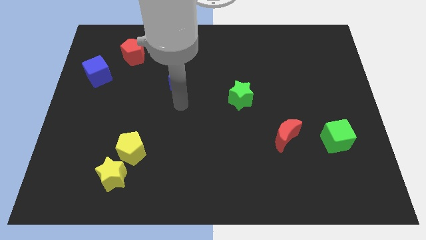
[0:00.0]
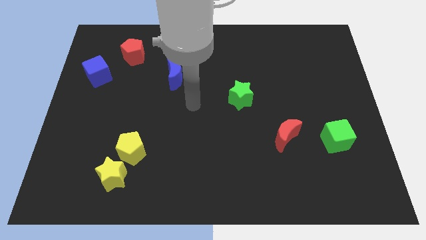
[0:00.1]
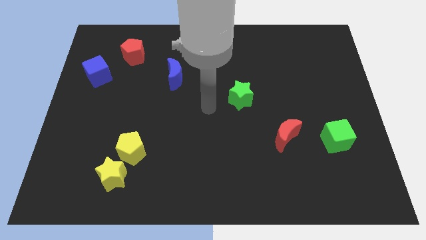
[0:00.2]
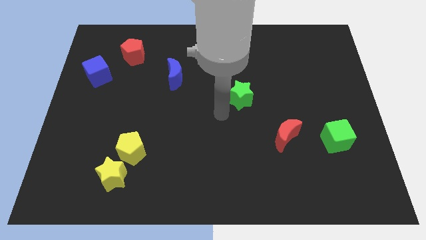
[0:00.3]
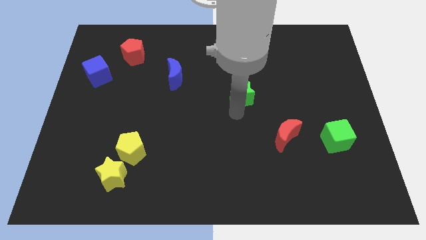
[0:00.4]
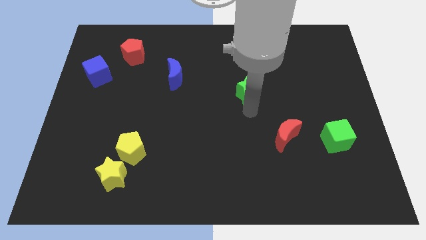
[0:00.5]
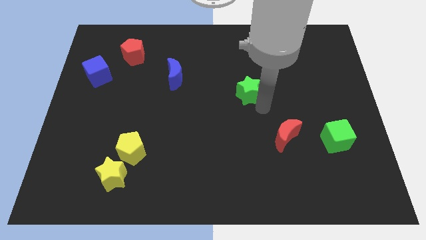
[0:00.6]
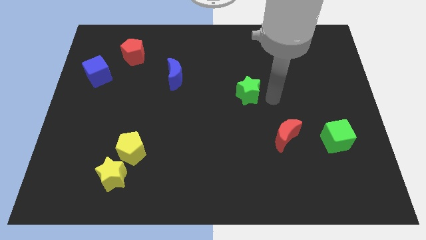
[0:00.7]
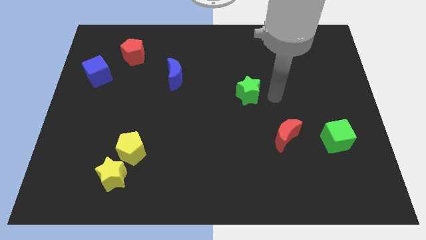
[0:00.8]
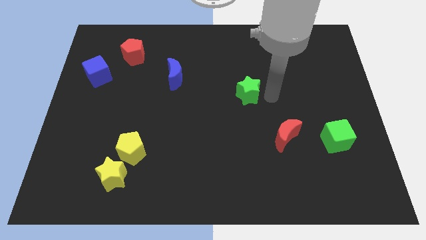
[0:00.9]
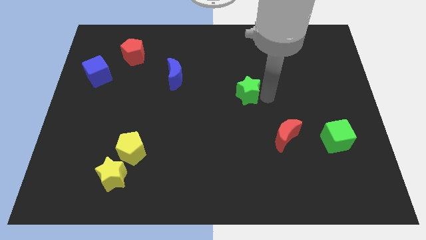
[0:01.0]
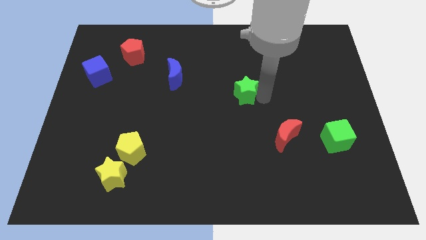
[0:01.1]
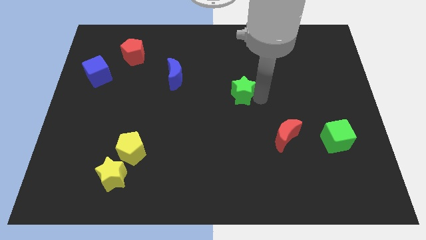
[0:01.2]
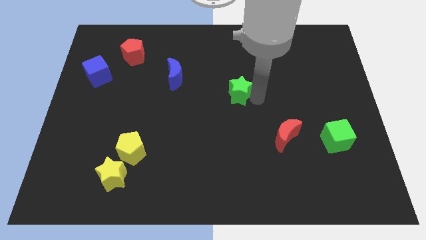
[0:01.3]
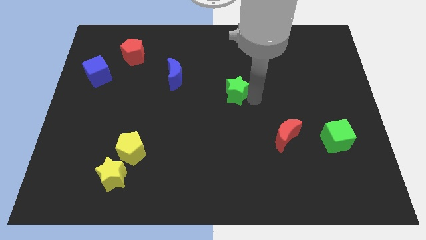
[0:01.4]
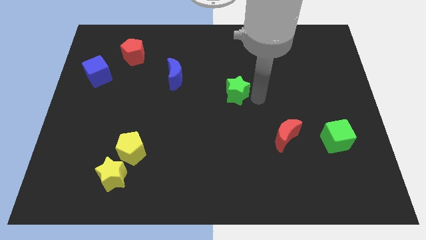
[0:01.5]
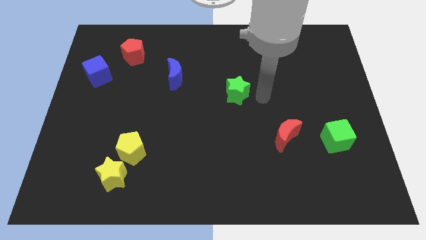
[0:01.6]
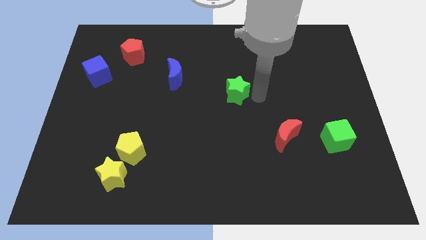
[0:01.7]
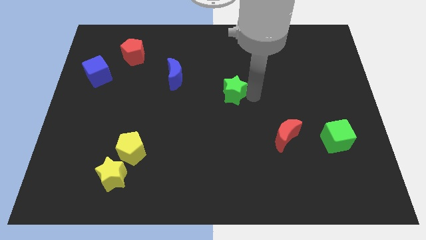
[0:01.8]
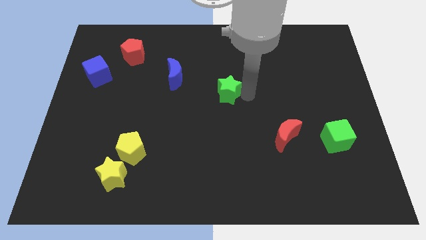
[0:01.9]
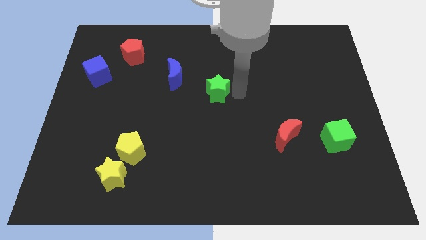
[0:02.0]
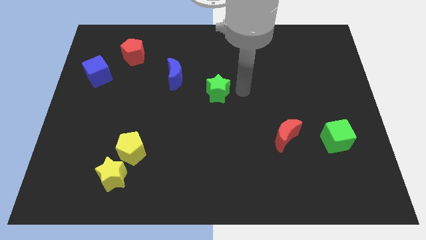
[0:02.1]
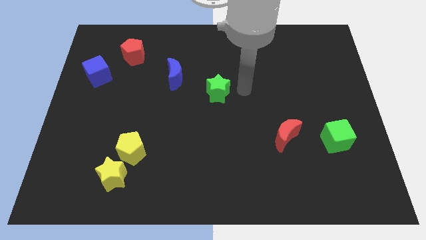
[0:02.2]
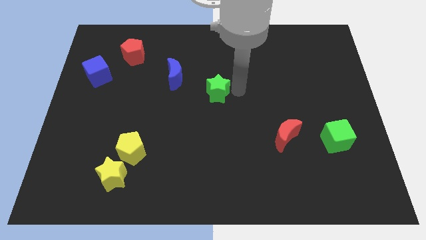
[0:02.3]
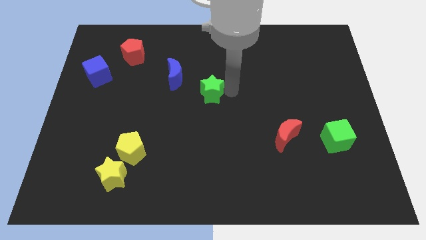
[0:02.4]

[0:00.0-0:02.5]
move the green star to the left slightly

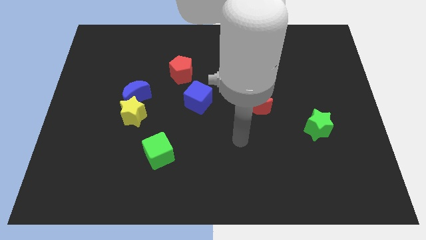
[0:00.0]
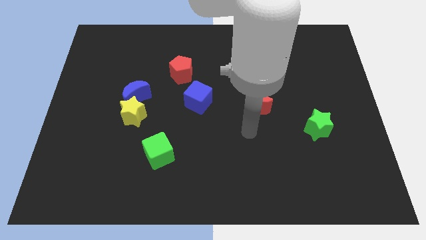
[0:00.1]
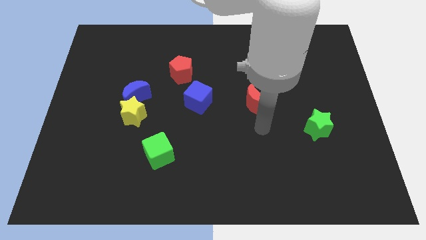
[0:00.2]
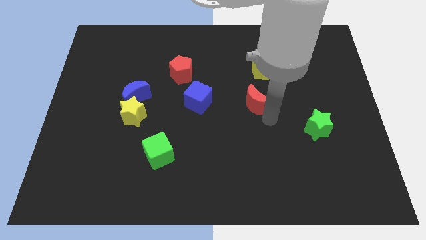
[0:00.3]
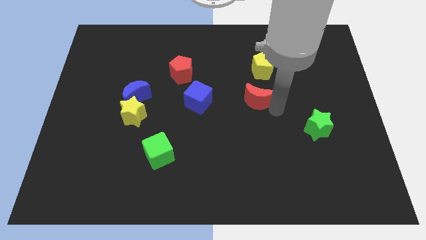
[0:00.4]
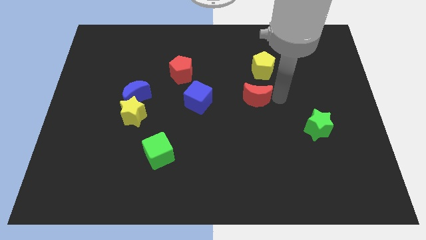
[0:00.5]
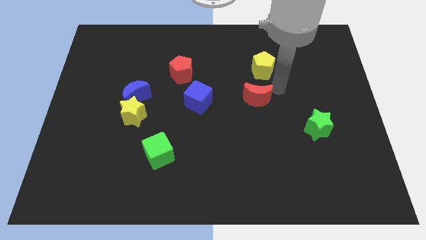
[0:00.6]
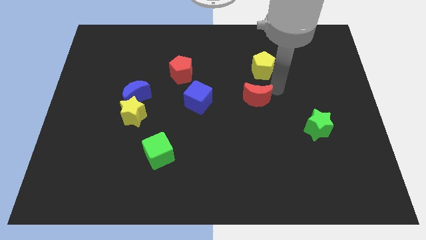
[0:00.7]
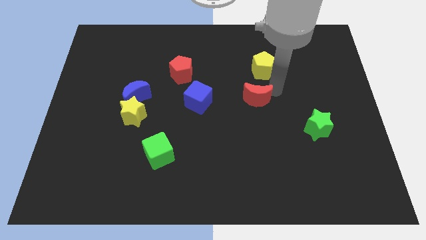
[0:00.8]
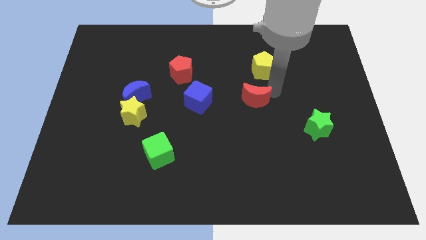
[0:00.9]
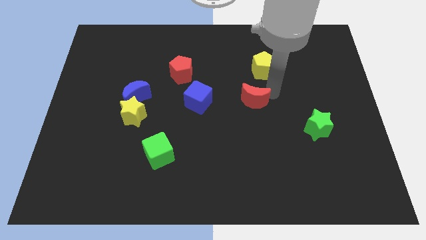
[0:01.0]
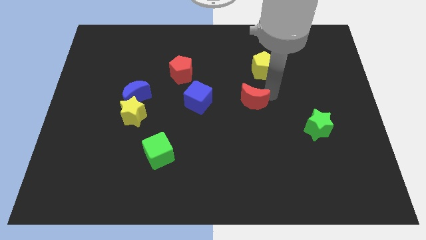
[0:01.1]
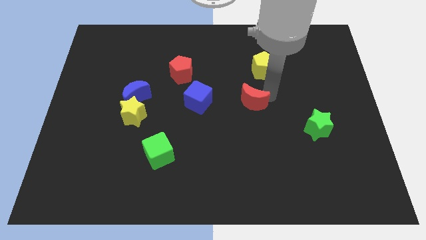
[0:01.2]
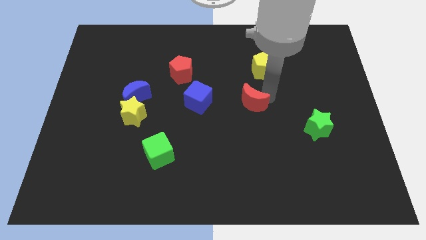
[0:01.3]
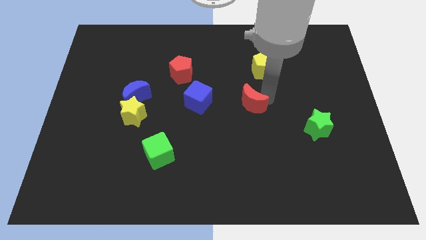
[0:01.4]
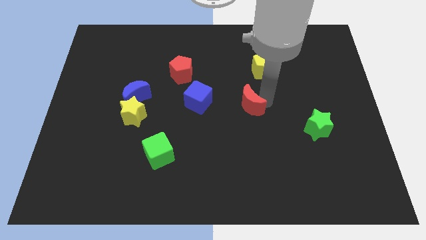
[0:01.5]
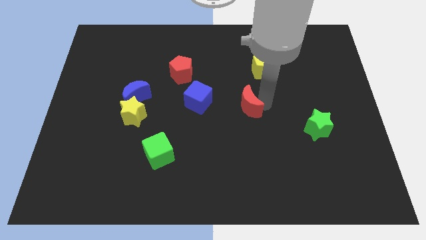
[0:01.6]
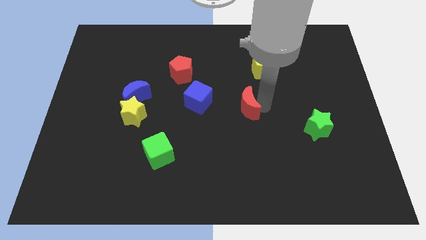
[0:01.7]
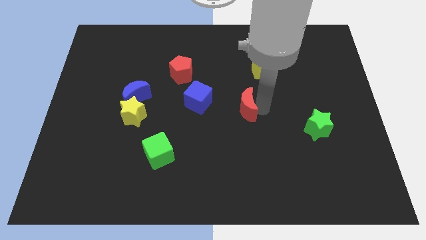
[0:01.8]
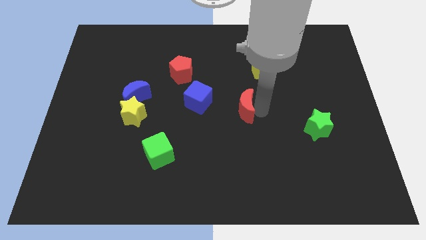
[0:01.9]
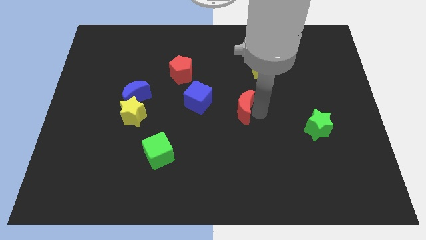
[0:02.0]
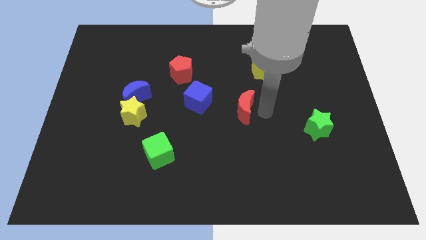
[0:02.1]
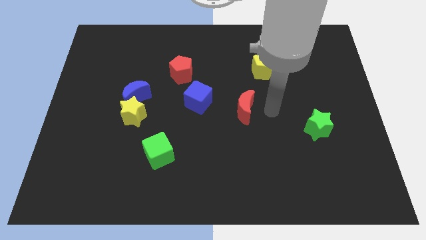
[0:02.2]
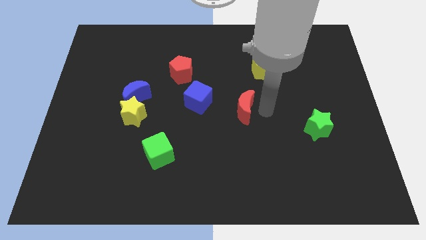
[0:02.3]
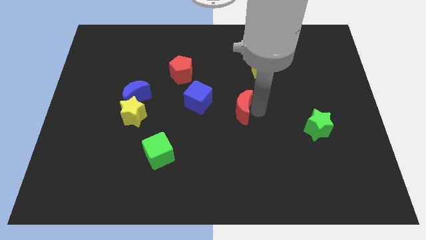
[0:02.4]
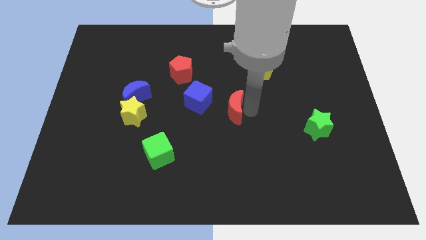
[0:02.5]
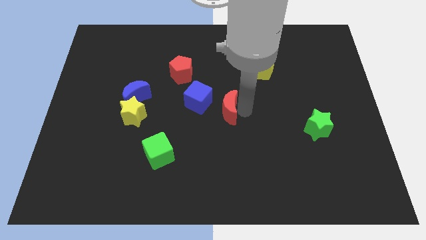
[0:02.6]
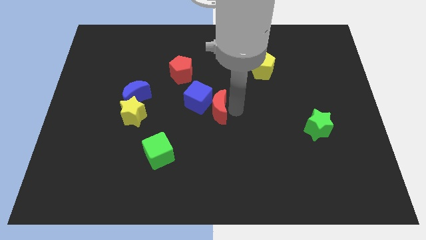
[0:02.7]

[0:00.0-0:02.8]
slide the red moon a little bit to the left

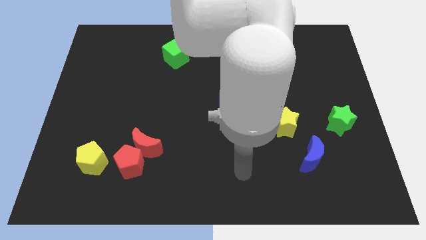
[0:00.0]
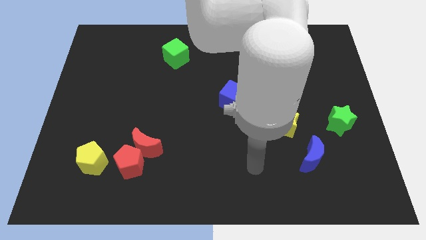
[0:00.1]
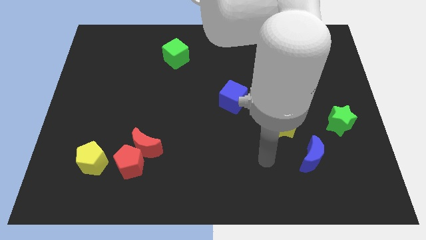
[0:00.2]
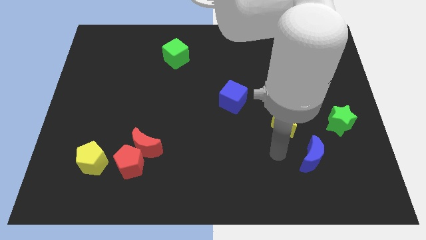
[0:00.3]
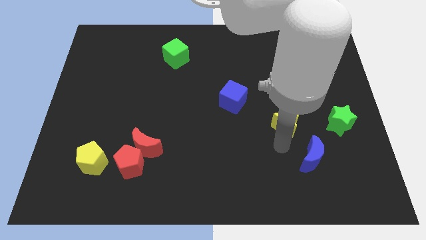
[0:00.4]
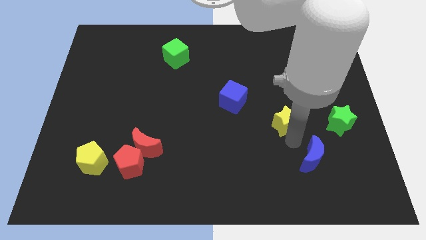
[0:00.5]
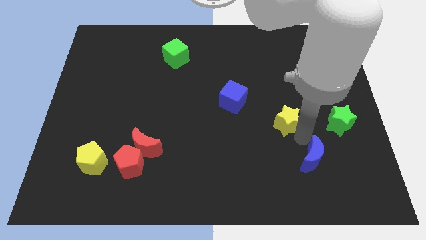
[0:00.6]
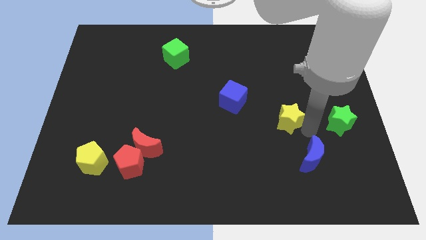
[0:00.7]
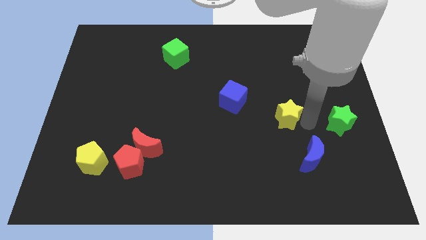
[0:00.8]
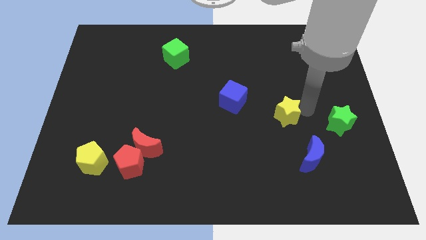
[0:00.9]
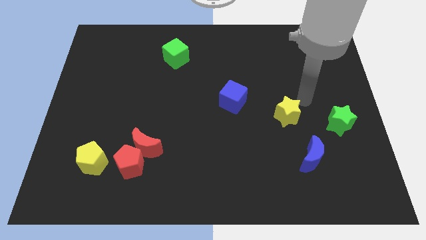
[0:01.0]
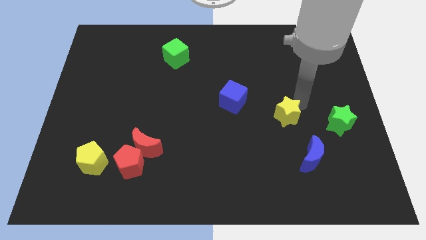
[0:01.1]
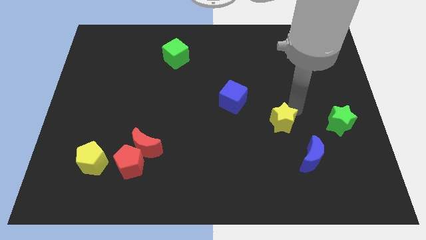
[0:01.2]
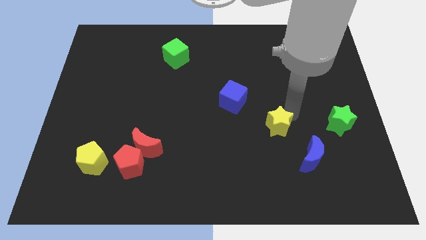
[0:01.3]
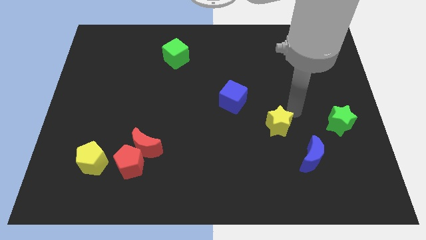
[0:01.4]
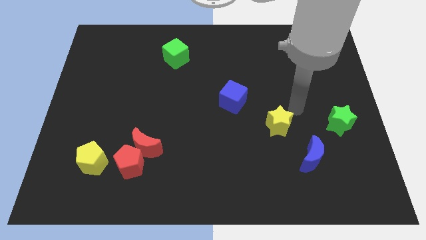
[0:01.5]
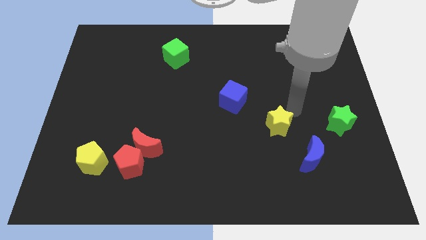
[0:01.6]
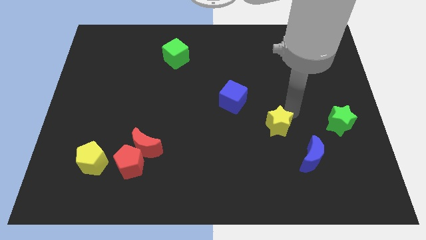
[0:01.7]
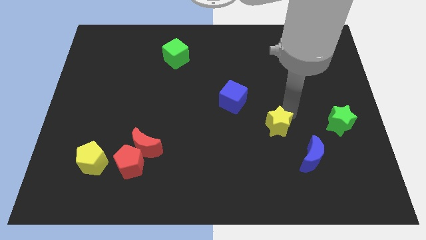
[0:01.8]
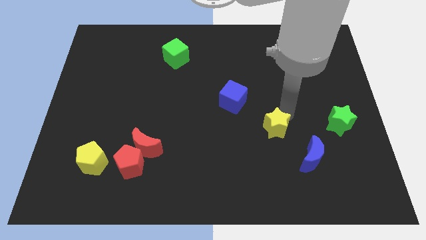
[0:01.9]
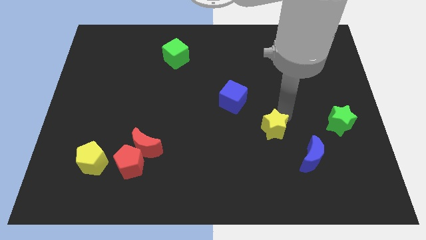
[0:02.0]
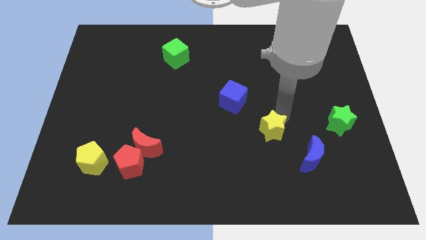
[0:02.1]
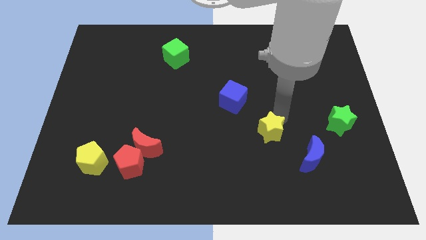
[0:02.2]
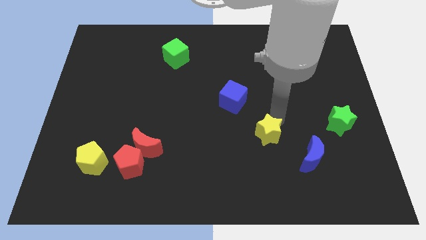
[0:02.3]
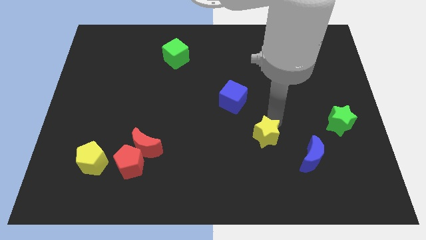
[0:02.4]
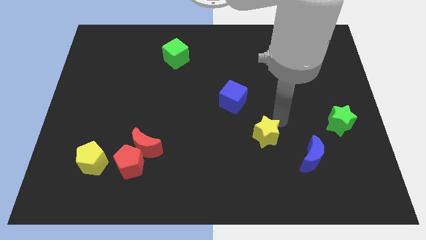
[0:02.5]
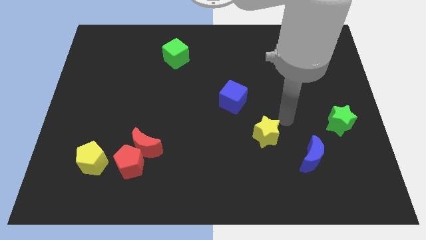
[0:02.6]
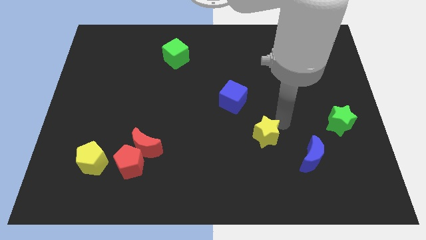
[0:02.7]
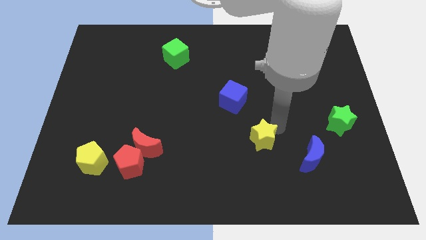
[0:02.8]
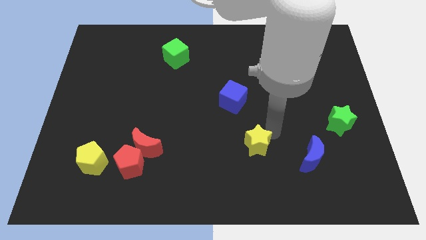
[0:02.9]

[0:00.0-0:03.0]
slide the yellow star somewhat down and then left
